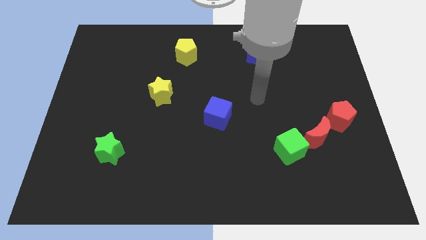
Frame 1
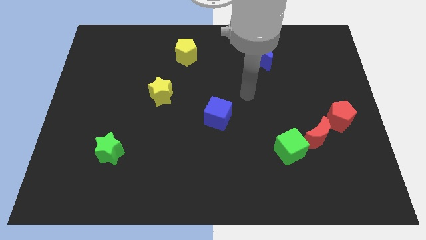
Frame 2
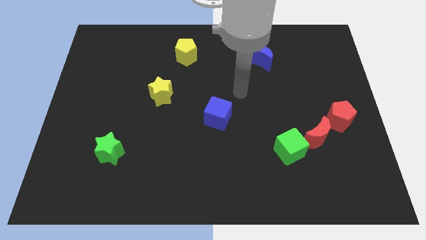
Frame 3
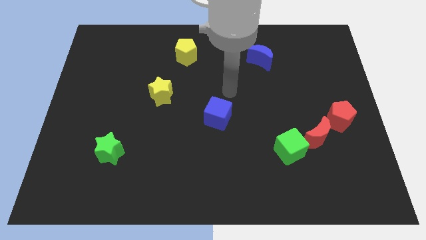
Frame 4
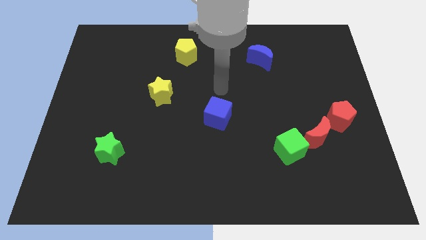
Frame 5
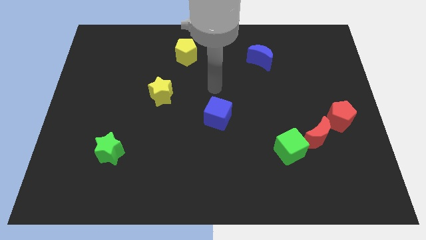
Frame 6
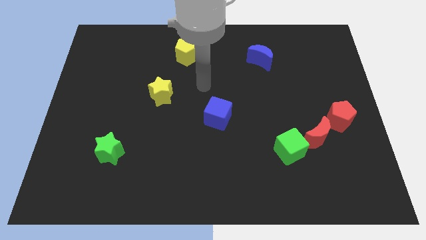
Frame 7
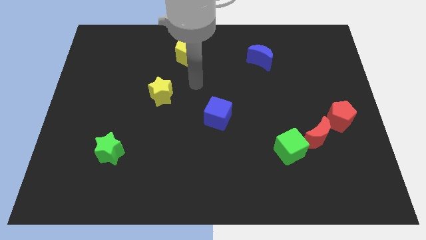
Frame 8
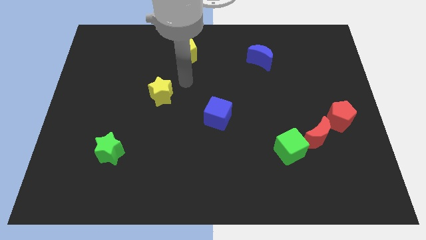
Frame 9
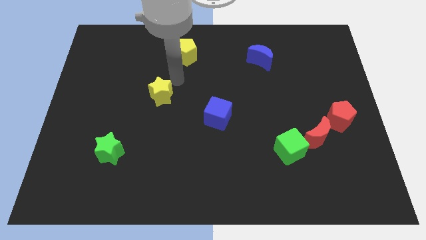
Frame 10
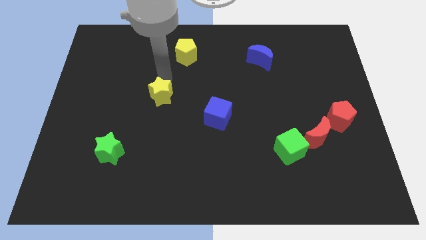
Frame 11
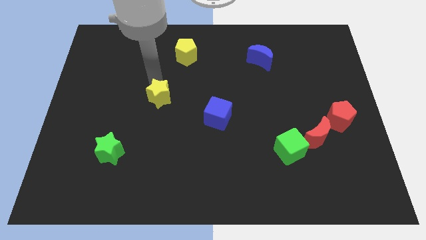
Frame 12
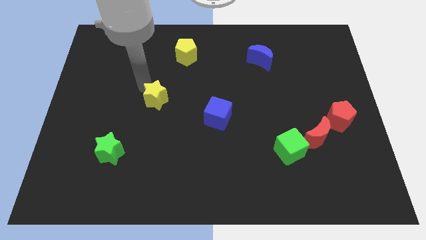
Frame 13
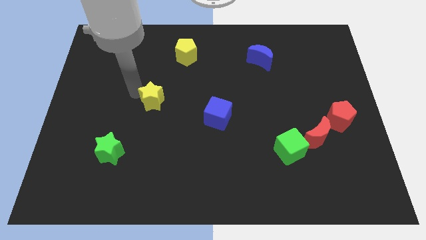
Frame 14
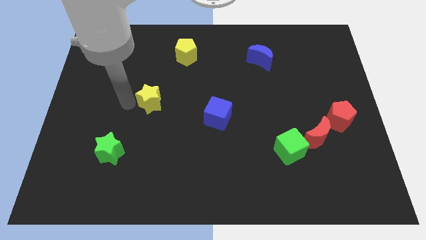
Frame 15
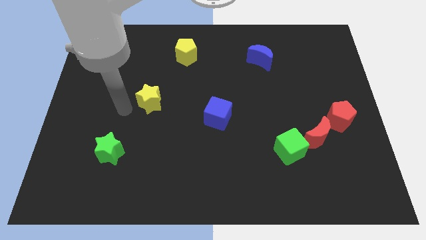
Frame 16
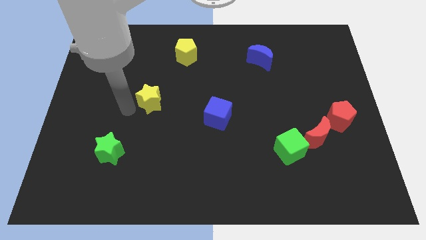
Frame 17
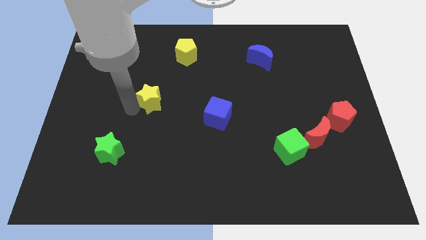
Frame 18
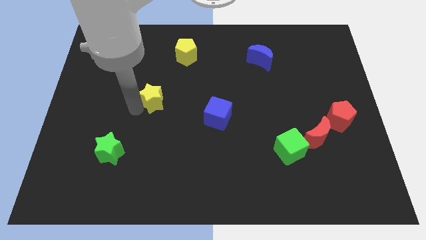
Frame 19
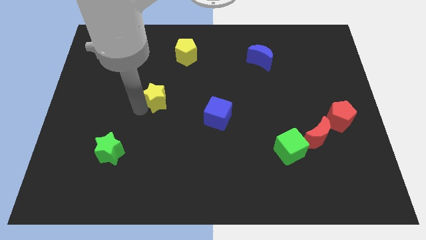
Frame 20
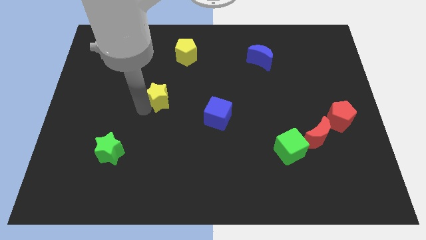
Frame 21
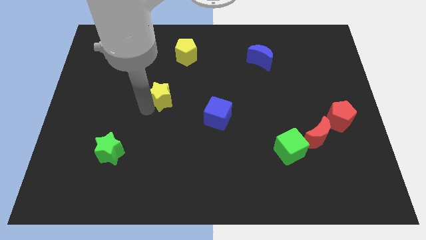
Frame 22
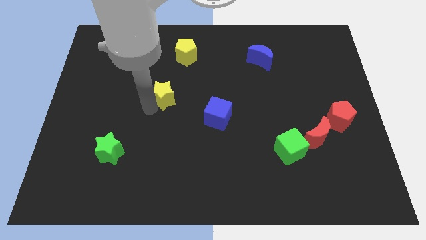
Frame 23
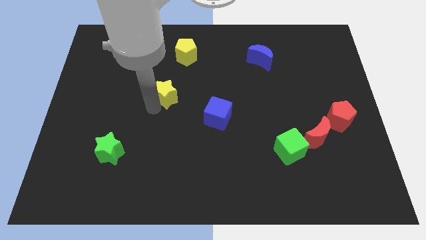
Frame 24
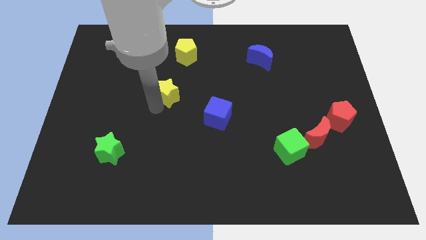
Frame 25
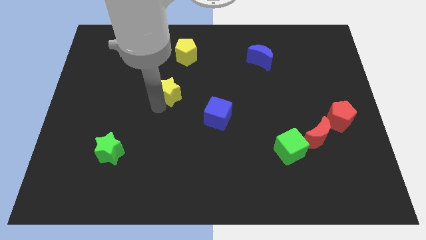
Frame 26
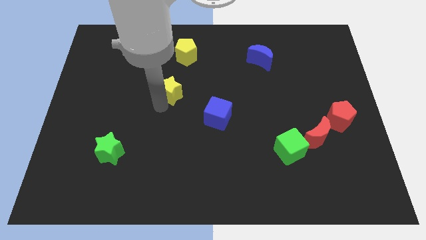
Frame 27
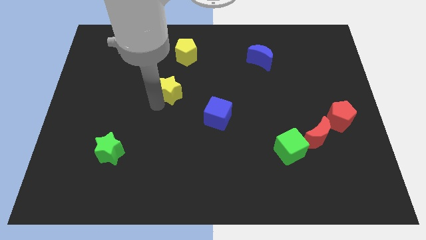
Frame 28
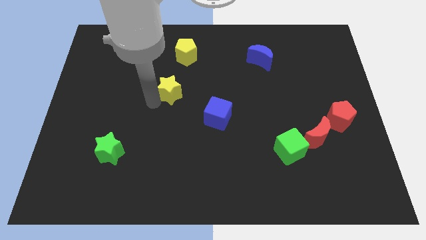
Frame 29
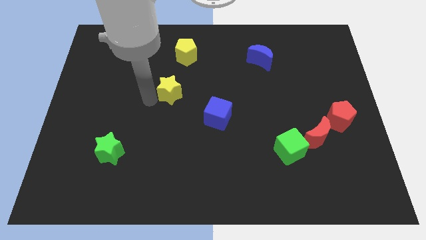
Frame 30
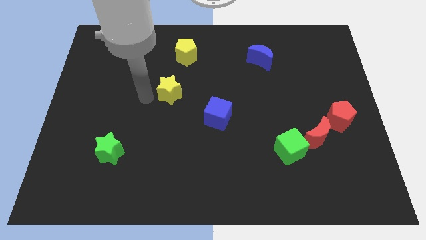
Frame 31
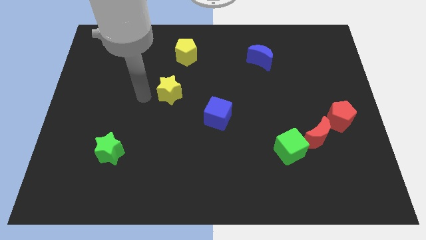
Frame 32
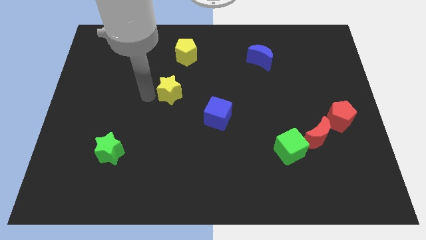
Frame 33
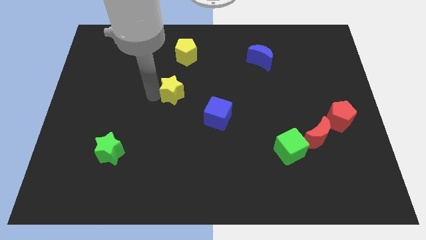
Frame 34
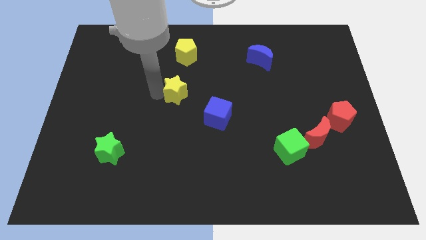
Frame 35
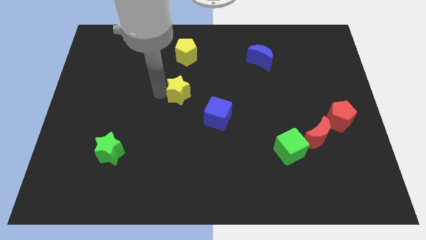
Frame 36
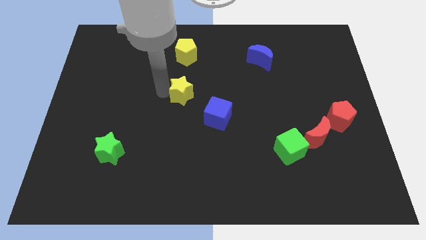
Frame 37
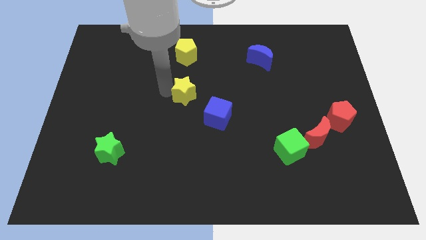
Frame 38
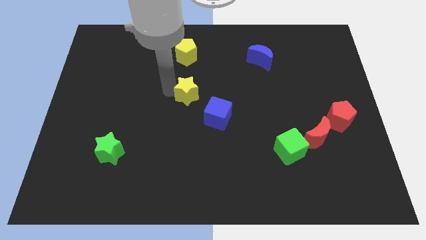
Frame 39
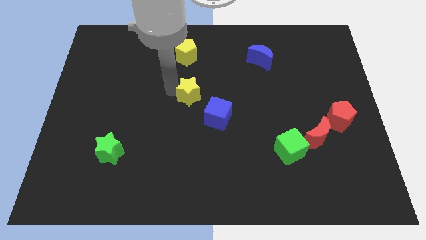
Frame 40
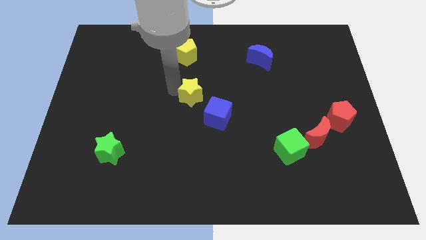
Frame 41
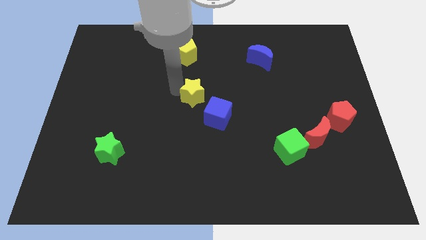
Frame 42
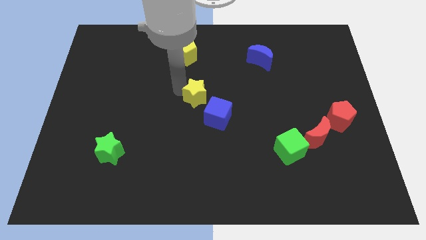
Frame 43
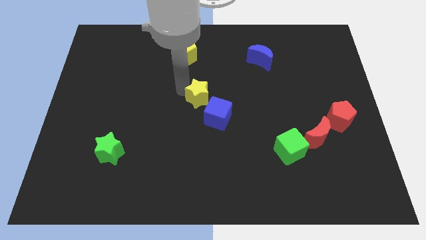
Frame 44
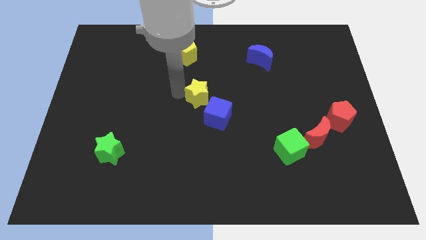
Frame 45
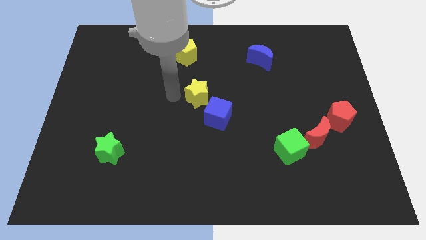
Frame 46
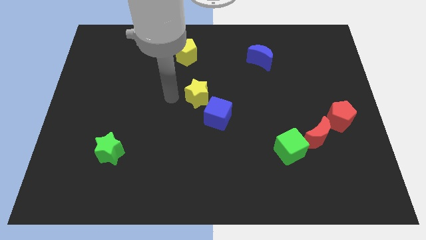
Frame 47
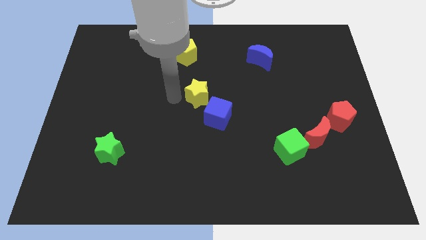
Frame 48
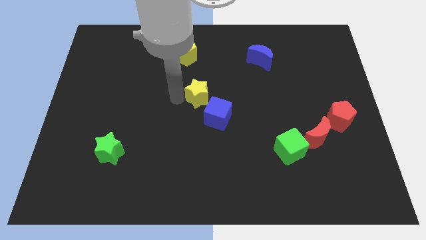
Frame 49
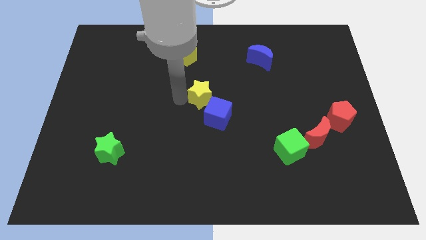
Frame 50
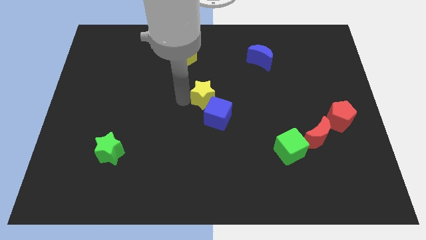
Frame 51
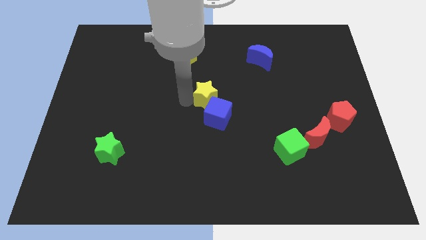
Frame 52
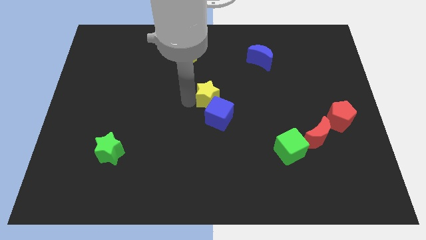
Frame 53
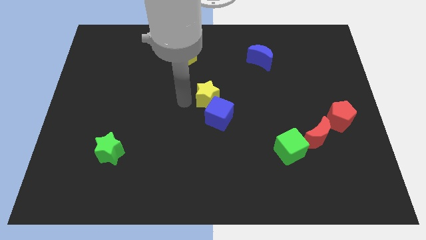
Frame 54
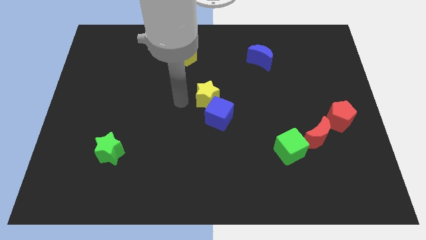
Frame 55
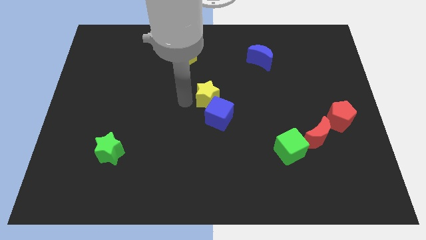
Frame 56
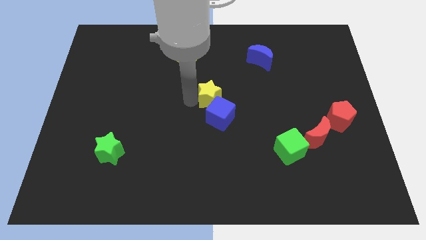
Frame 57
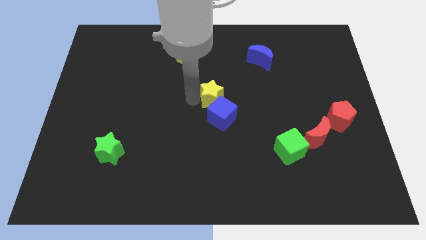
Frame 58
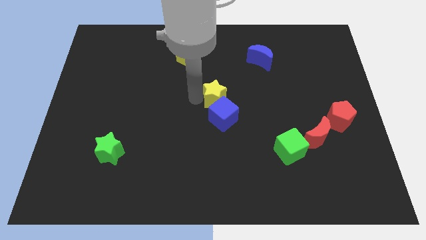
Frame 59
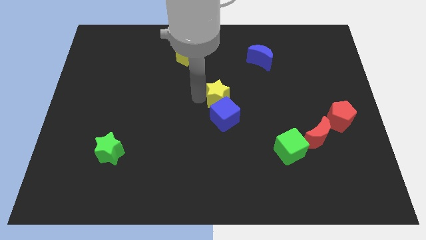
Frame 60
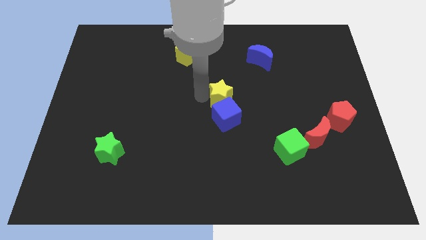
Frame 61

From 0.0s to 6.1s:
slide the yellow star to the top right side of the blue cube

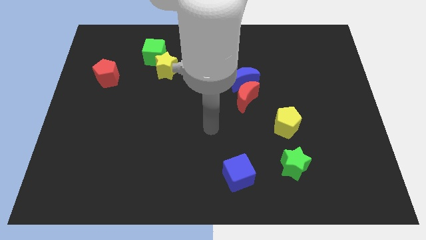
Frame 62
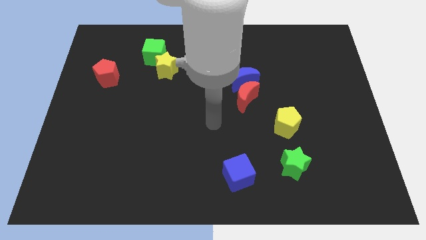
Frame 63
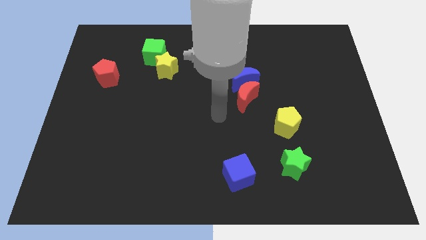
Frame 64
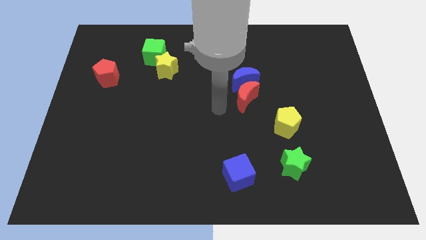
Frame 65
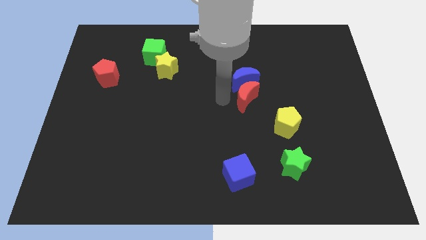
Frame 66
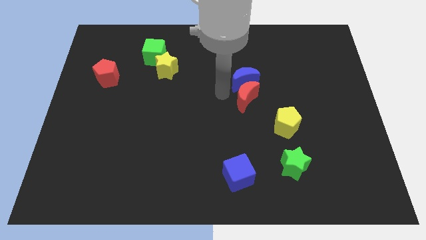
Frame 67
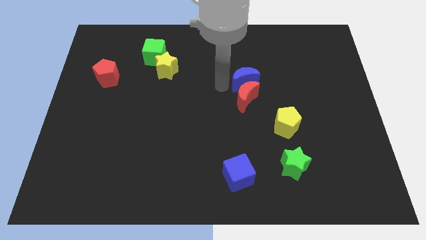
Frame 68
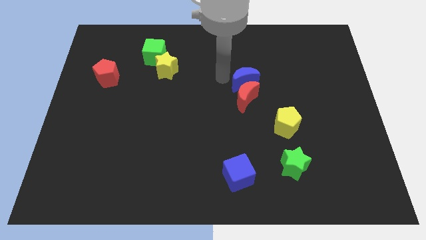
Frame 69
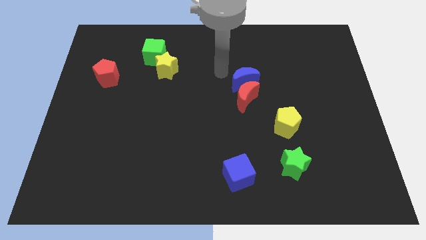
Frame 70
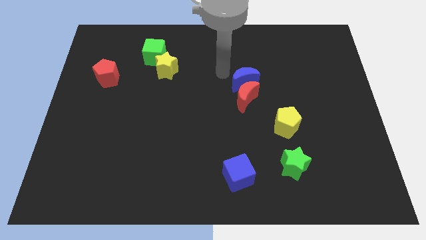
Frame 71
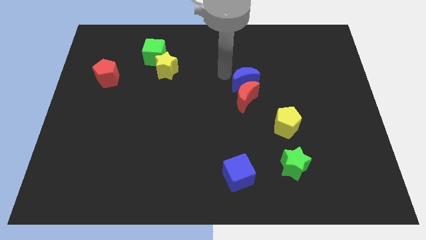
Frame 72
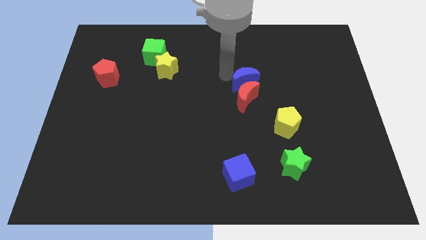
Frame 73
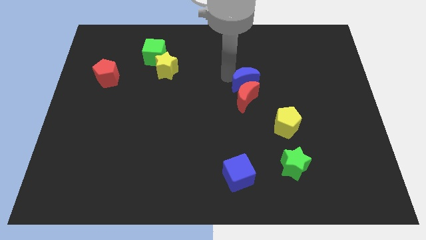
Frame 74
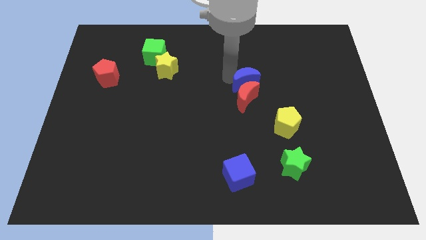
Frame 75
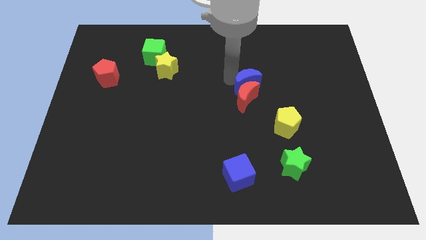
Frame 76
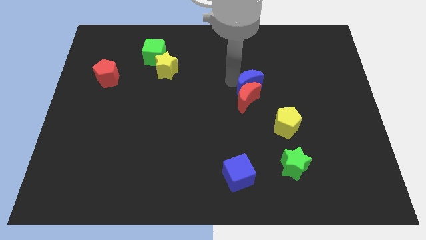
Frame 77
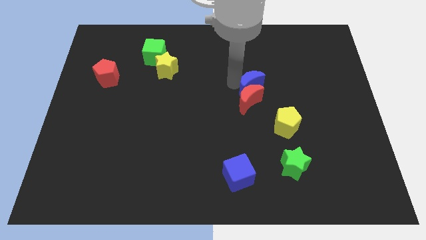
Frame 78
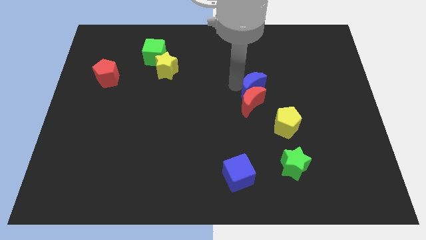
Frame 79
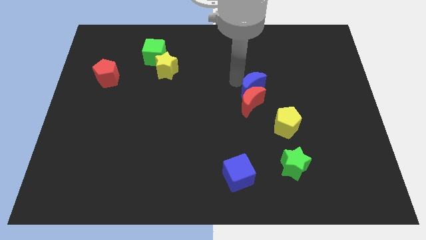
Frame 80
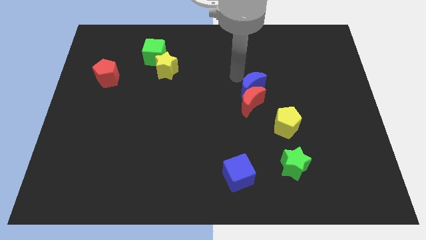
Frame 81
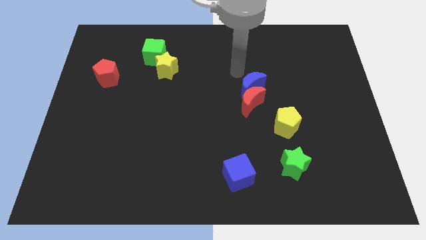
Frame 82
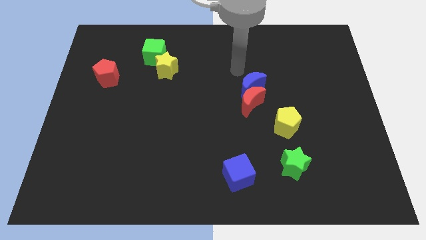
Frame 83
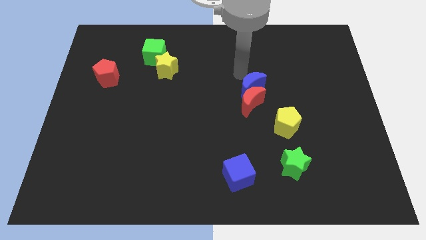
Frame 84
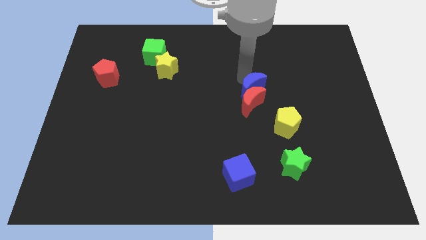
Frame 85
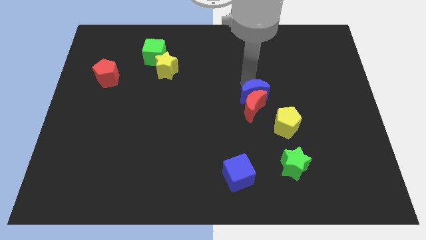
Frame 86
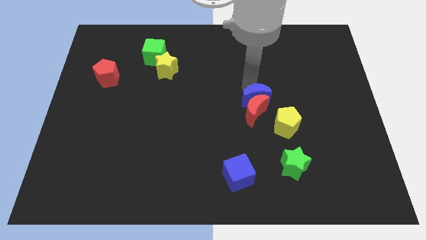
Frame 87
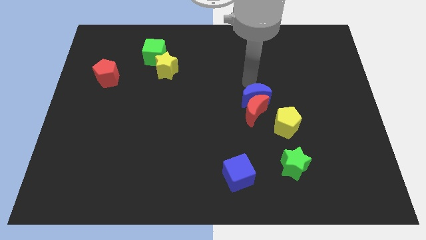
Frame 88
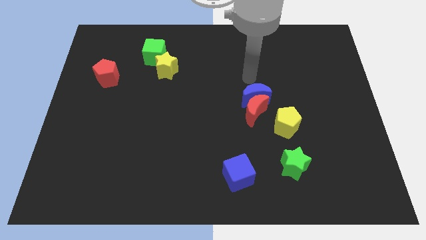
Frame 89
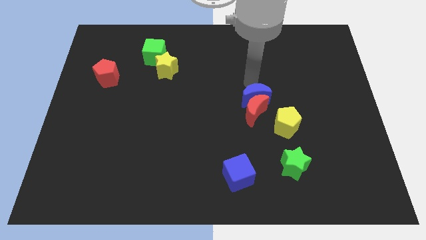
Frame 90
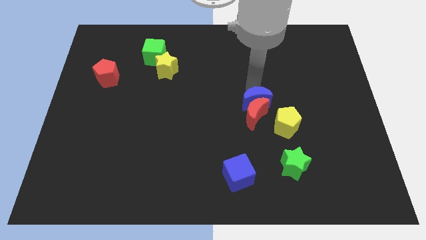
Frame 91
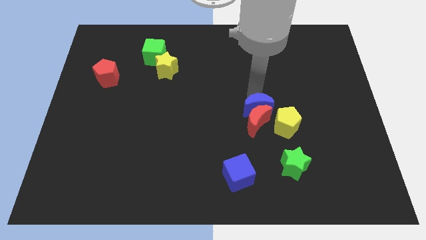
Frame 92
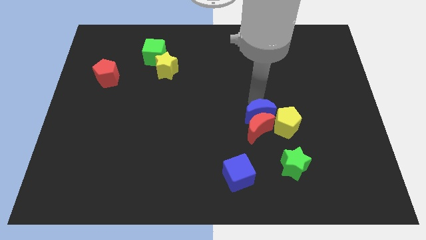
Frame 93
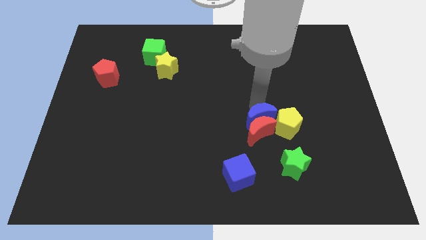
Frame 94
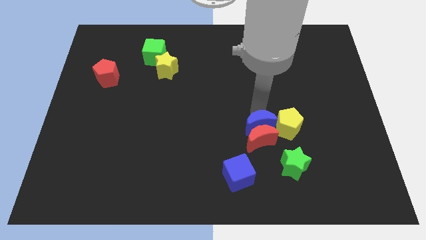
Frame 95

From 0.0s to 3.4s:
slide the blue moon diagonally down and to the left of the yellow pentagon
